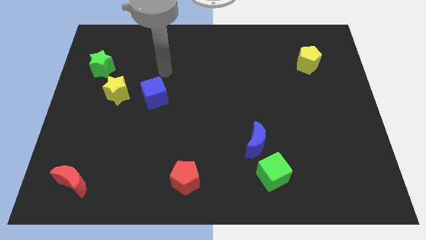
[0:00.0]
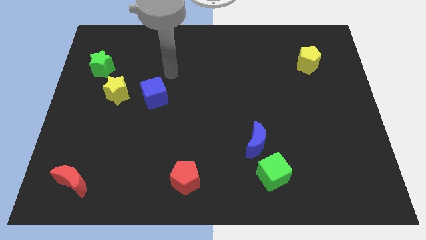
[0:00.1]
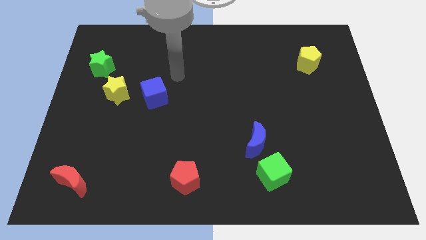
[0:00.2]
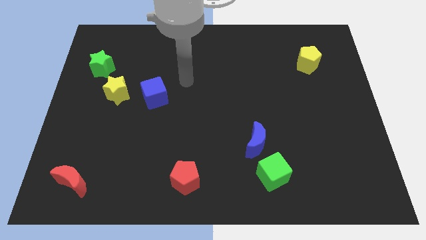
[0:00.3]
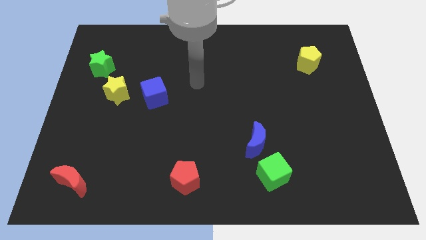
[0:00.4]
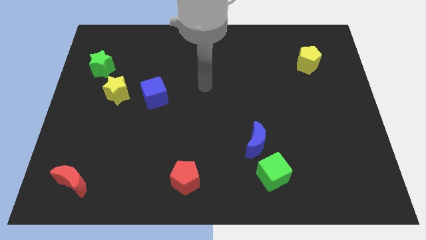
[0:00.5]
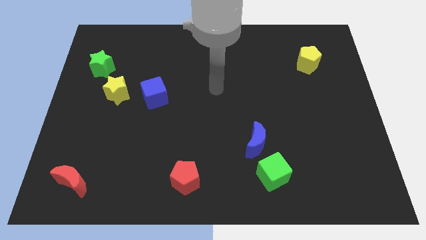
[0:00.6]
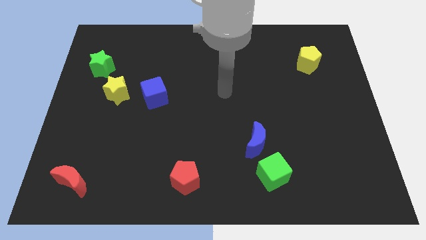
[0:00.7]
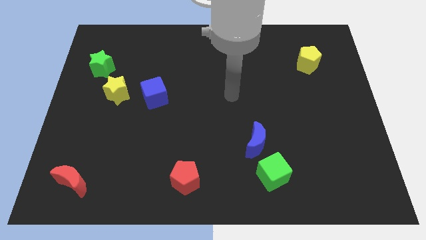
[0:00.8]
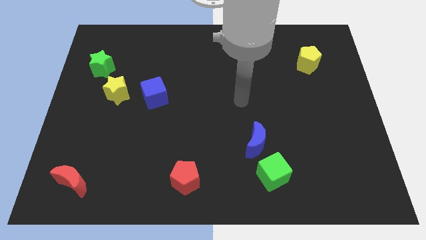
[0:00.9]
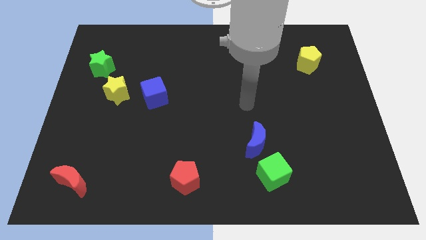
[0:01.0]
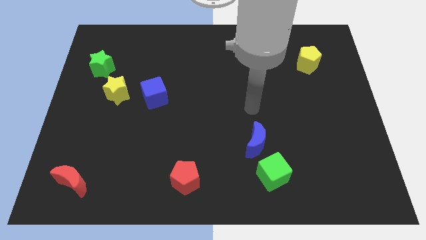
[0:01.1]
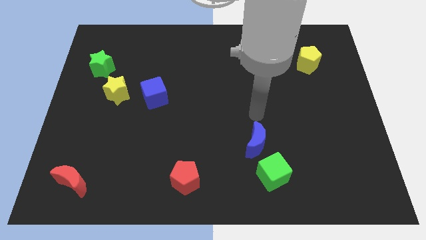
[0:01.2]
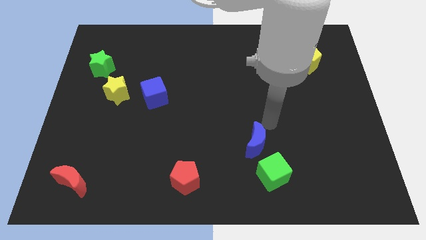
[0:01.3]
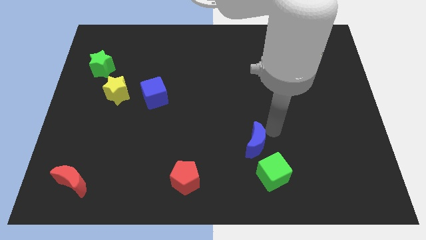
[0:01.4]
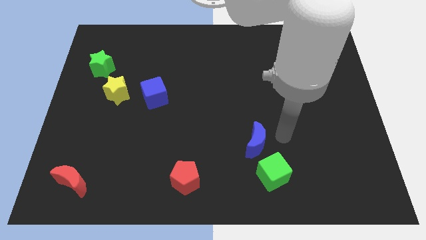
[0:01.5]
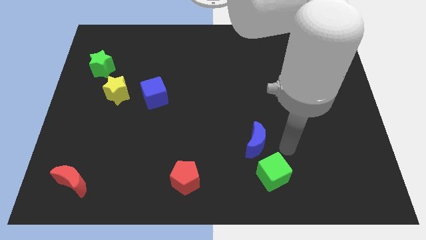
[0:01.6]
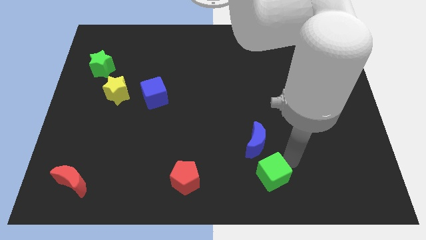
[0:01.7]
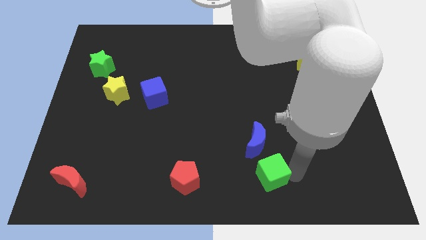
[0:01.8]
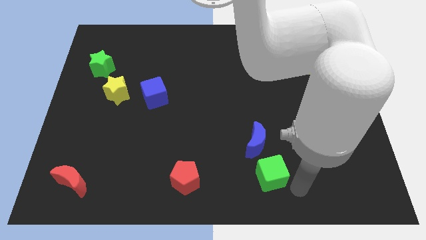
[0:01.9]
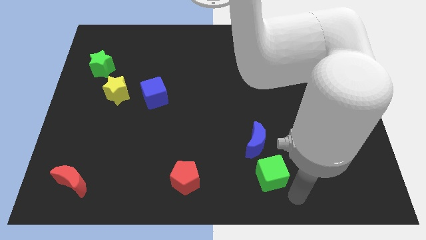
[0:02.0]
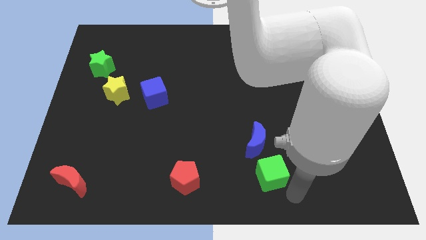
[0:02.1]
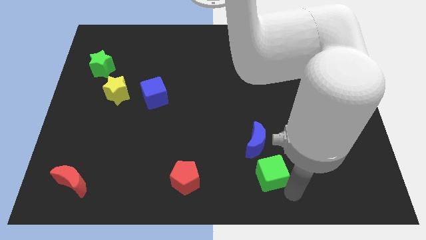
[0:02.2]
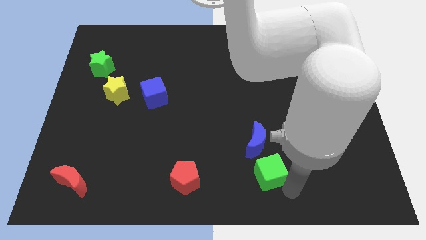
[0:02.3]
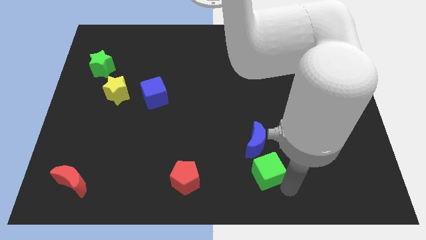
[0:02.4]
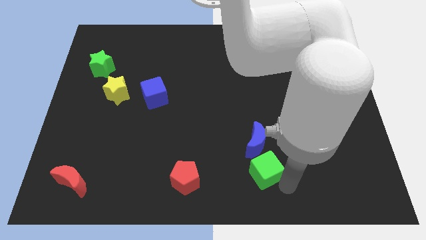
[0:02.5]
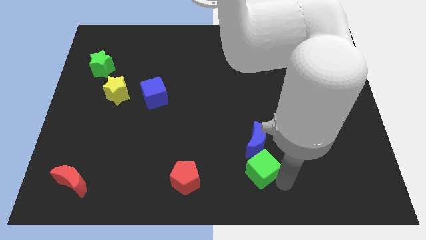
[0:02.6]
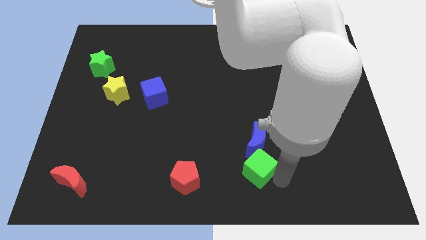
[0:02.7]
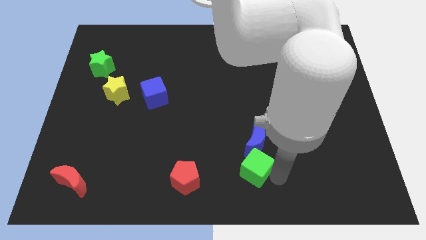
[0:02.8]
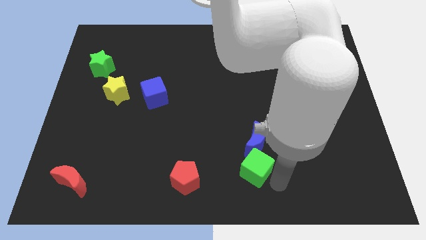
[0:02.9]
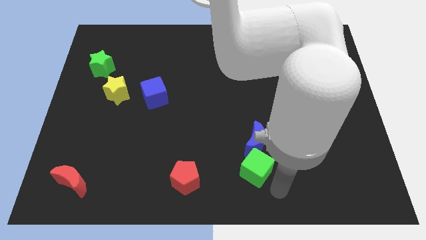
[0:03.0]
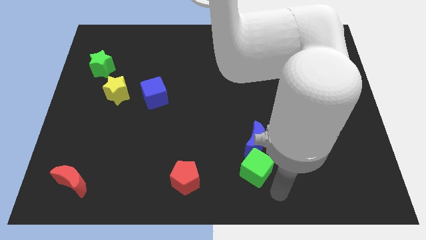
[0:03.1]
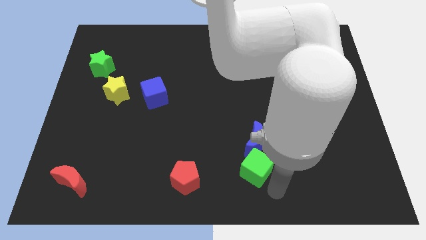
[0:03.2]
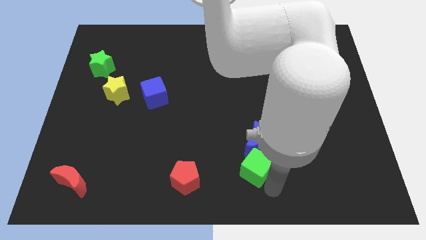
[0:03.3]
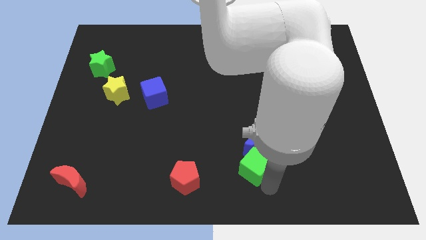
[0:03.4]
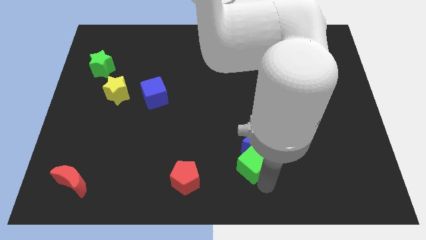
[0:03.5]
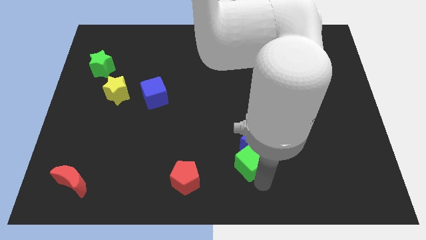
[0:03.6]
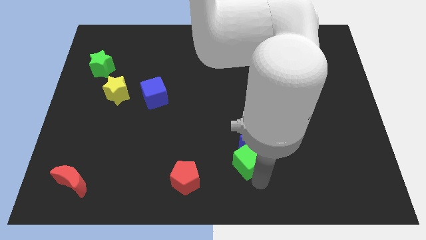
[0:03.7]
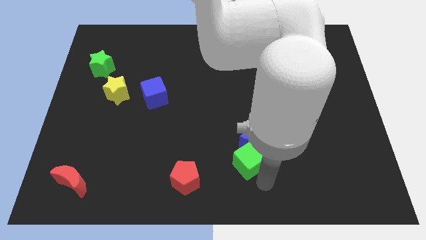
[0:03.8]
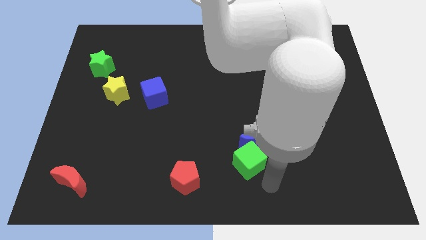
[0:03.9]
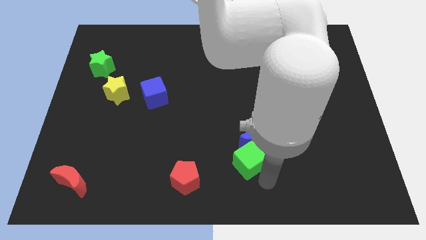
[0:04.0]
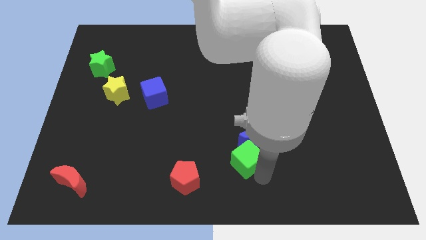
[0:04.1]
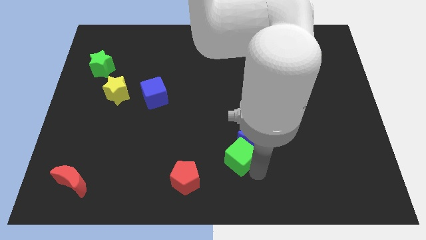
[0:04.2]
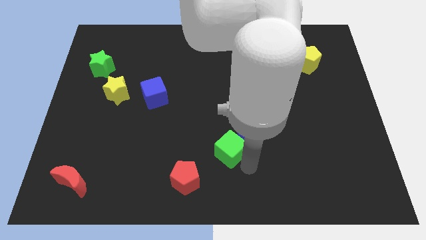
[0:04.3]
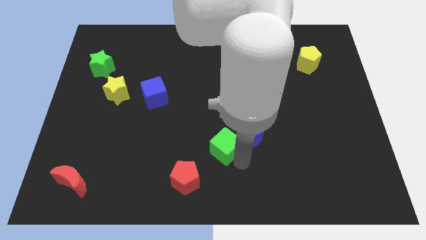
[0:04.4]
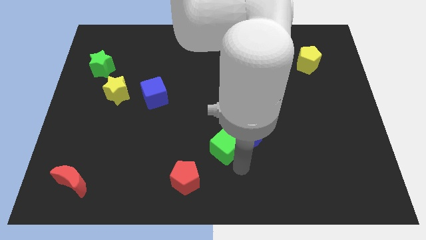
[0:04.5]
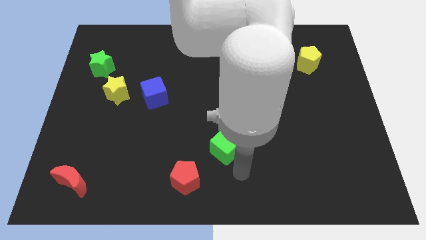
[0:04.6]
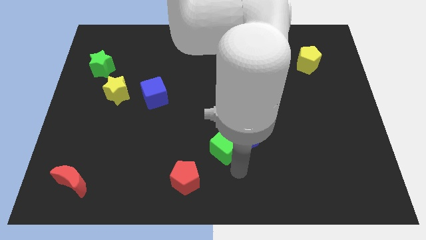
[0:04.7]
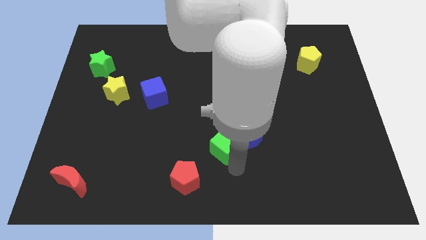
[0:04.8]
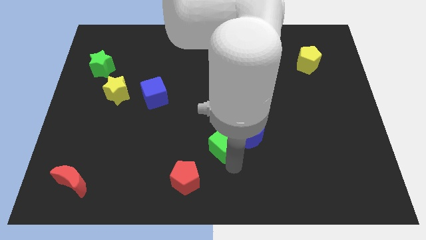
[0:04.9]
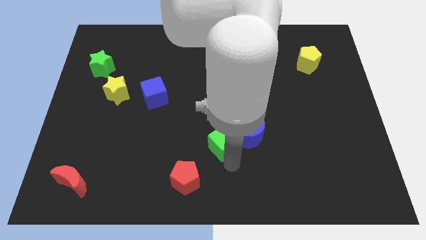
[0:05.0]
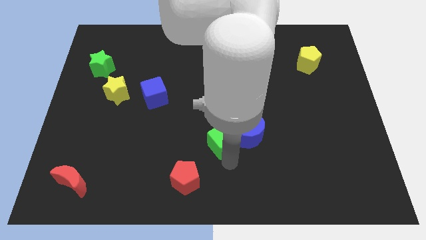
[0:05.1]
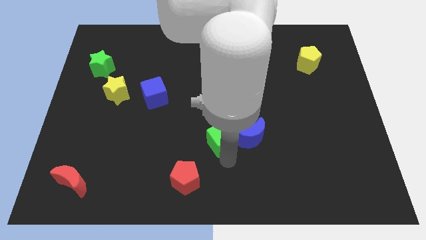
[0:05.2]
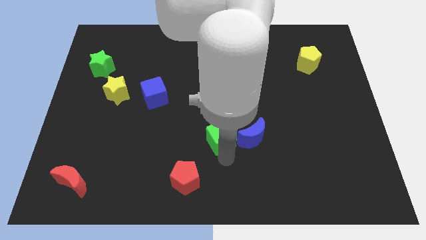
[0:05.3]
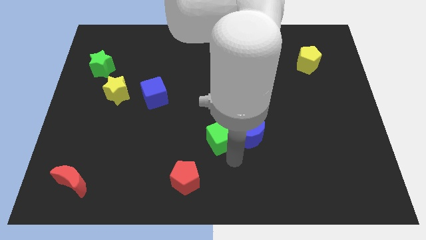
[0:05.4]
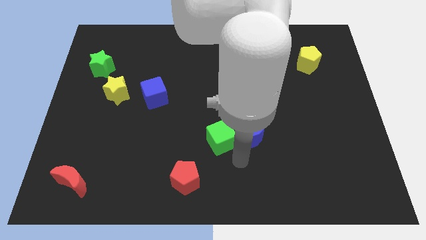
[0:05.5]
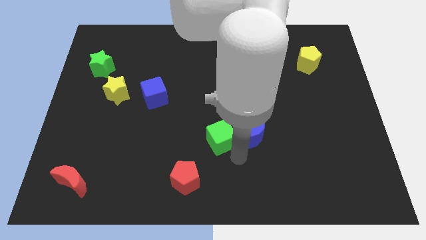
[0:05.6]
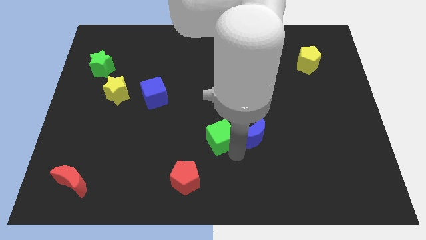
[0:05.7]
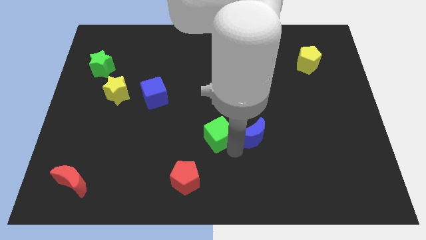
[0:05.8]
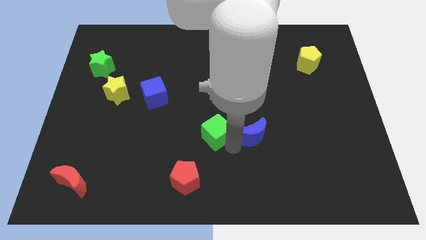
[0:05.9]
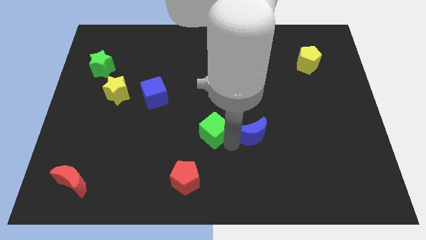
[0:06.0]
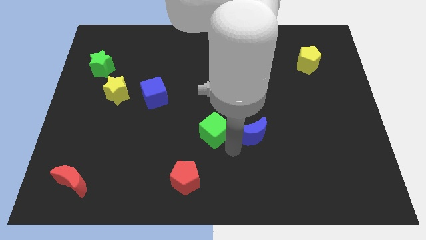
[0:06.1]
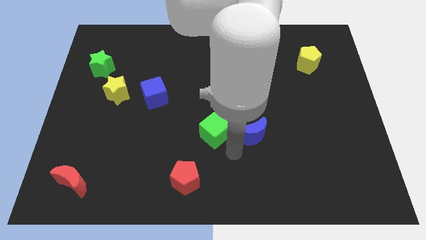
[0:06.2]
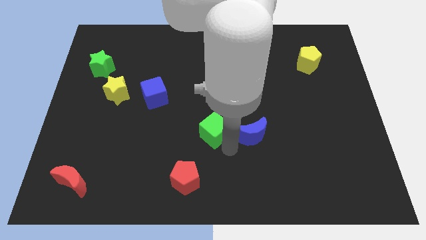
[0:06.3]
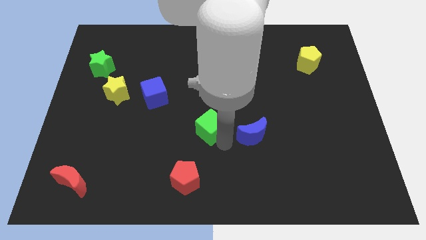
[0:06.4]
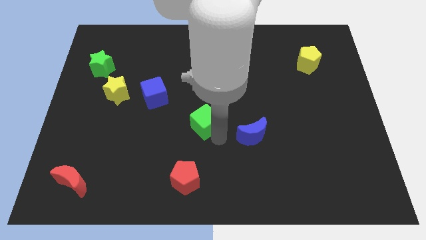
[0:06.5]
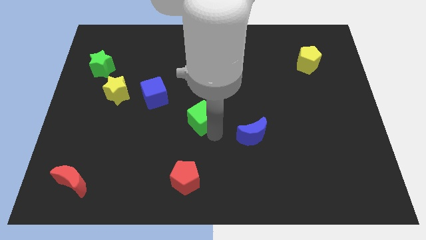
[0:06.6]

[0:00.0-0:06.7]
push the green cube up and left diagonally

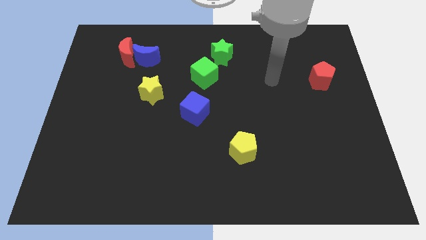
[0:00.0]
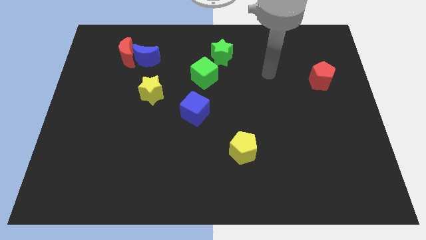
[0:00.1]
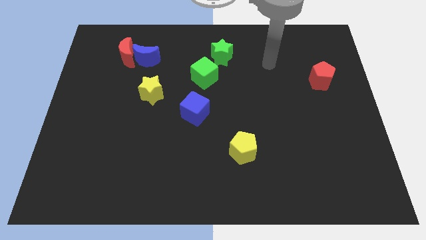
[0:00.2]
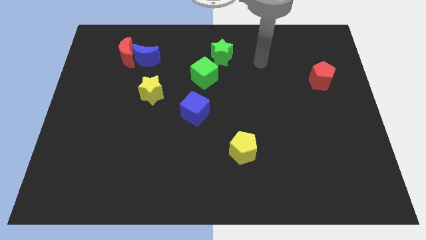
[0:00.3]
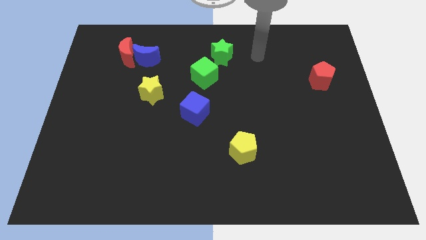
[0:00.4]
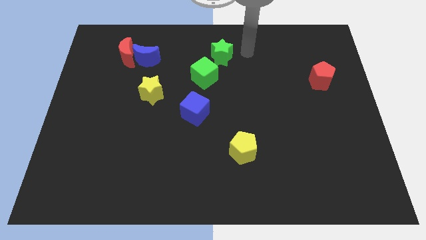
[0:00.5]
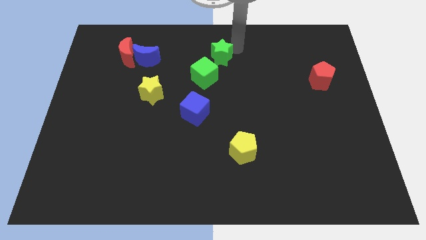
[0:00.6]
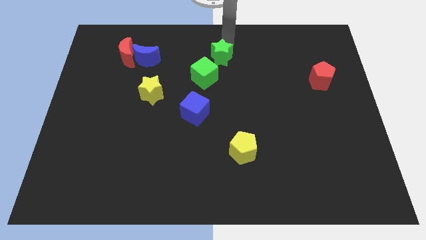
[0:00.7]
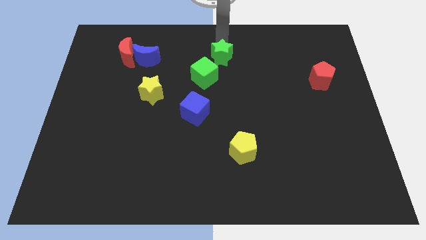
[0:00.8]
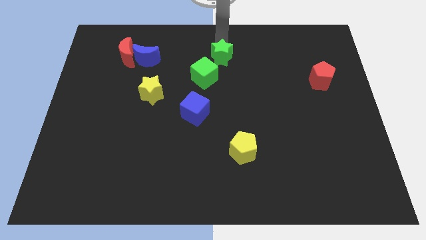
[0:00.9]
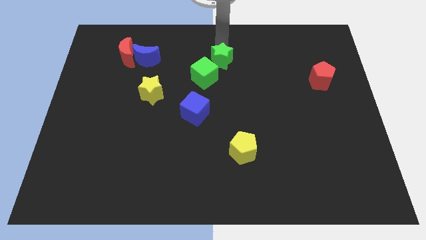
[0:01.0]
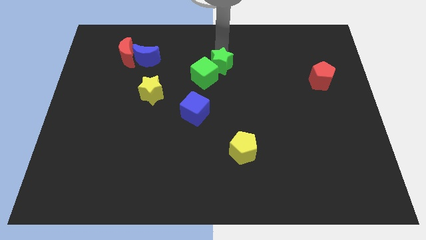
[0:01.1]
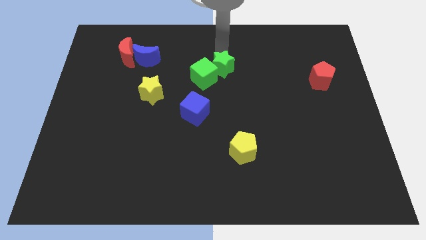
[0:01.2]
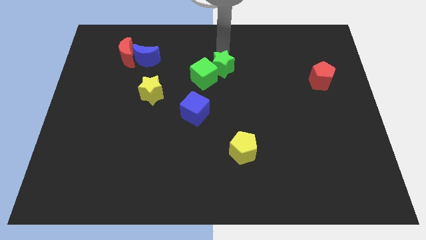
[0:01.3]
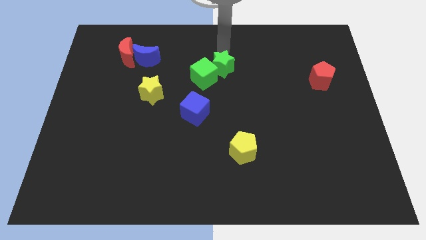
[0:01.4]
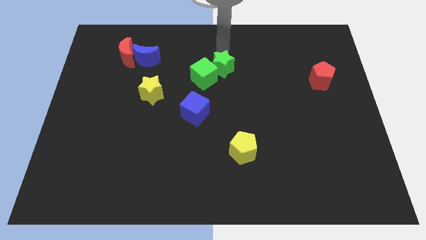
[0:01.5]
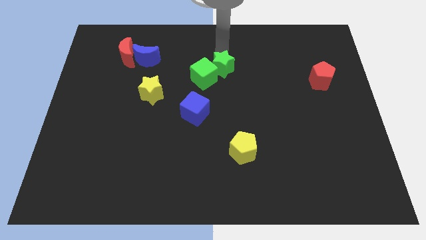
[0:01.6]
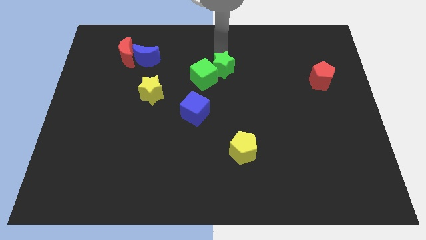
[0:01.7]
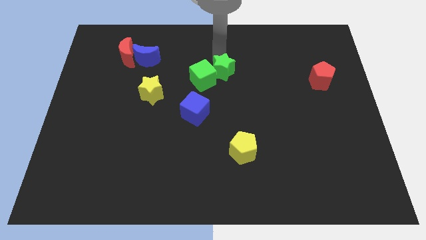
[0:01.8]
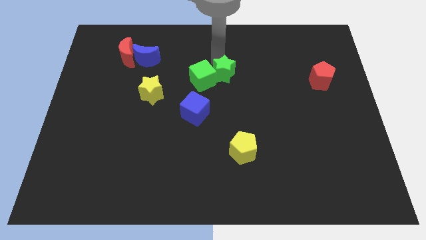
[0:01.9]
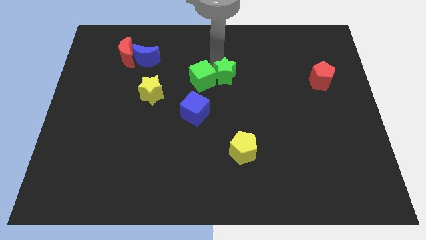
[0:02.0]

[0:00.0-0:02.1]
push the green star a little bit downwards
